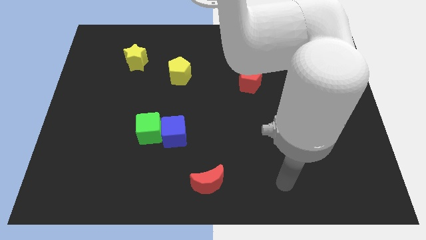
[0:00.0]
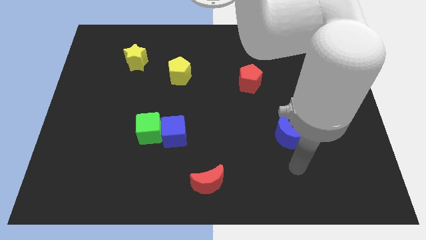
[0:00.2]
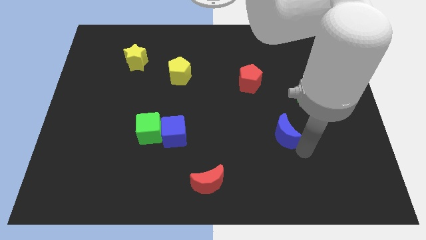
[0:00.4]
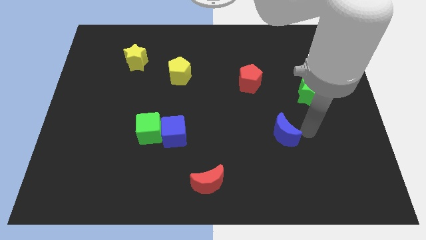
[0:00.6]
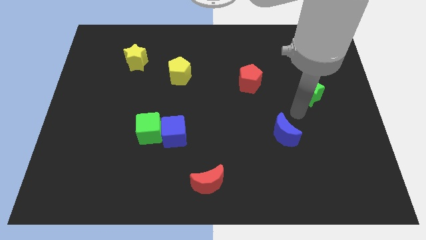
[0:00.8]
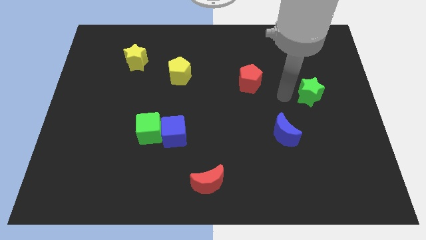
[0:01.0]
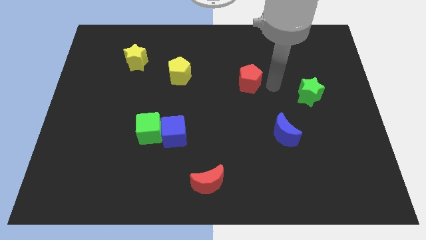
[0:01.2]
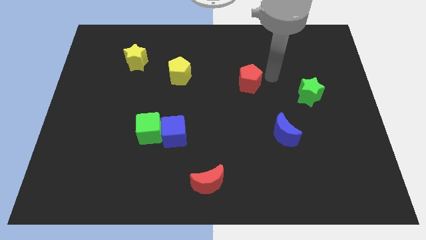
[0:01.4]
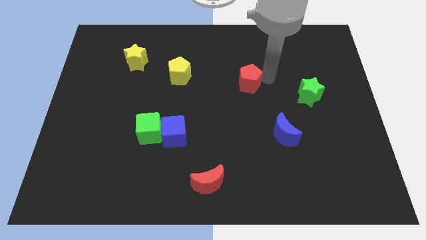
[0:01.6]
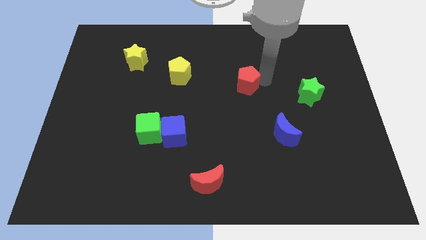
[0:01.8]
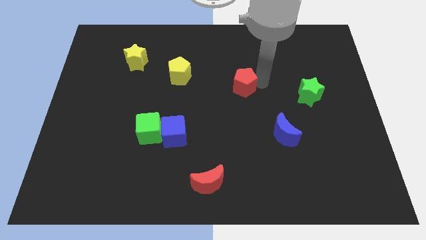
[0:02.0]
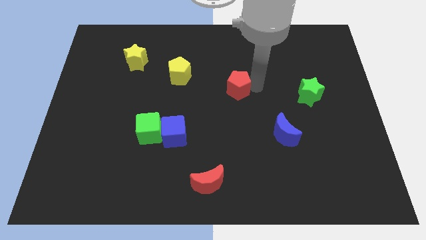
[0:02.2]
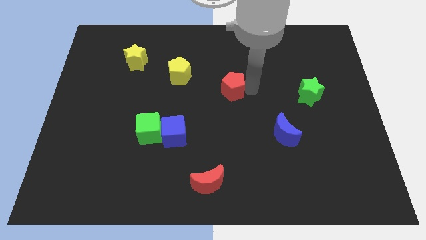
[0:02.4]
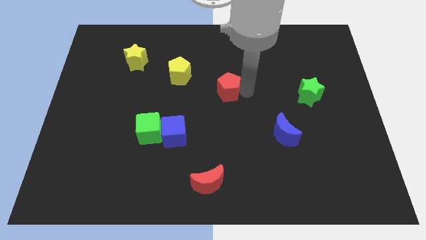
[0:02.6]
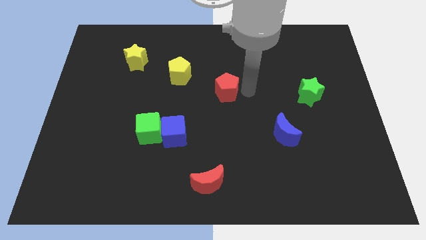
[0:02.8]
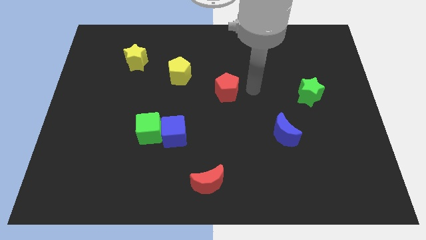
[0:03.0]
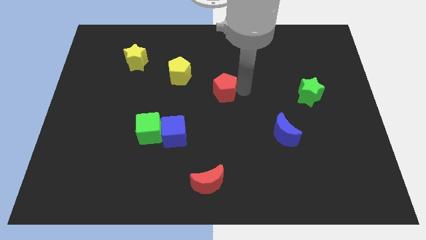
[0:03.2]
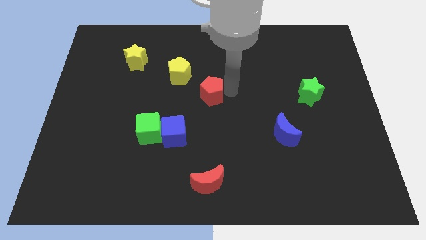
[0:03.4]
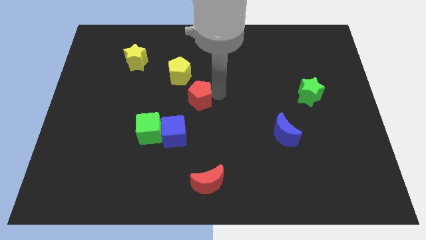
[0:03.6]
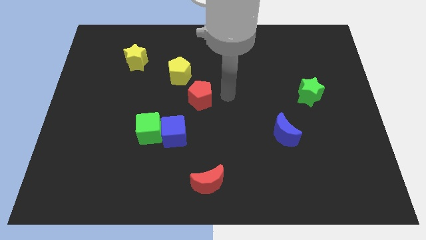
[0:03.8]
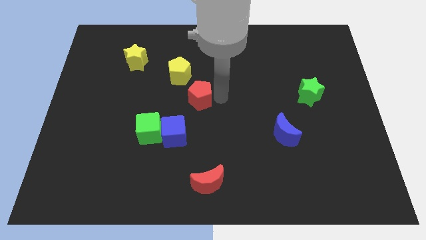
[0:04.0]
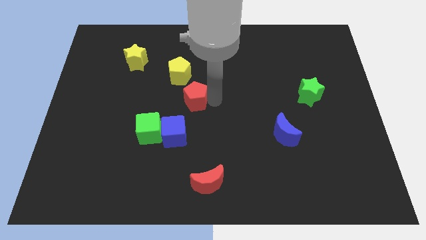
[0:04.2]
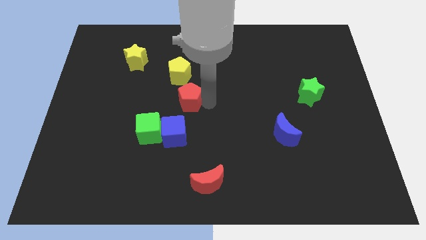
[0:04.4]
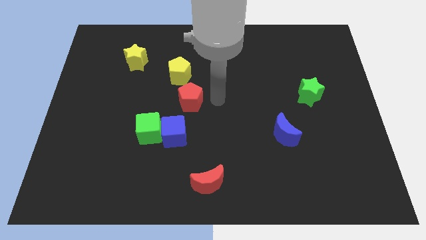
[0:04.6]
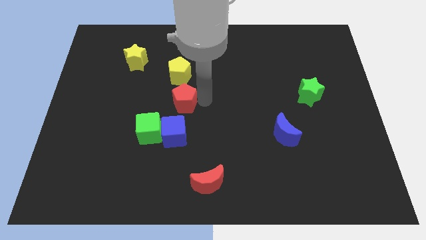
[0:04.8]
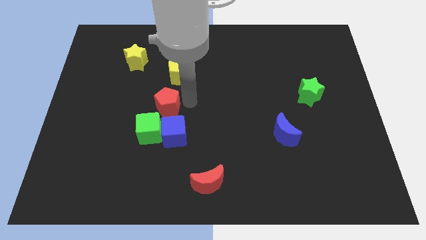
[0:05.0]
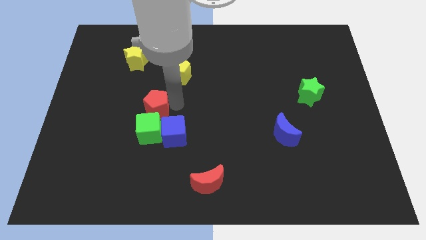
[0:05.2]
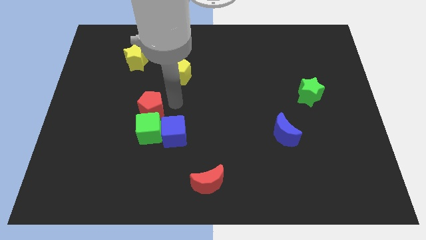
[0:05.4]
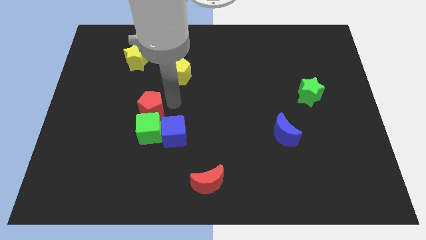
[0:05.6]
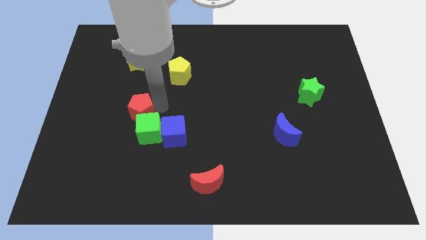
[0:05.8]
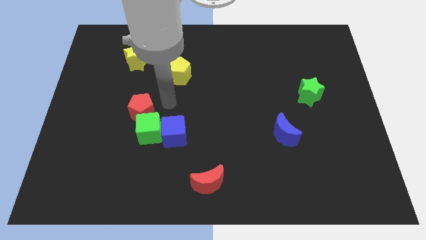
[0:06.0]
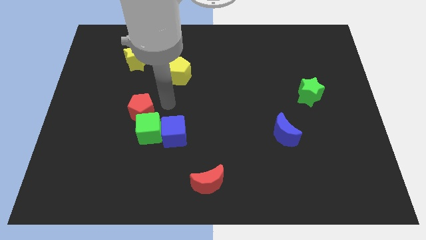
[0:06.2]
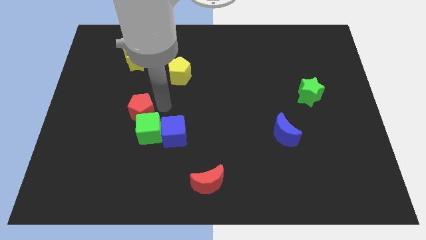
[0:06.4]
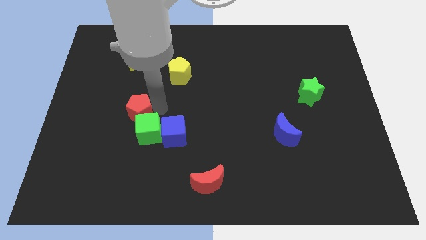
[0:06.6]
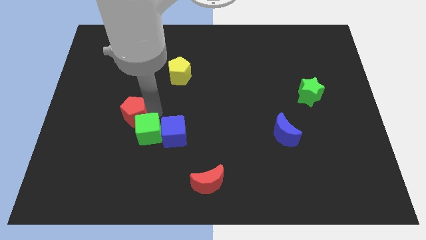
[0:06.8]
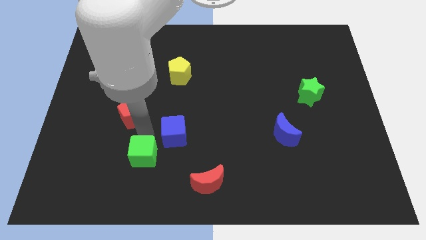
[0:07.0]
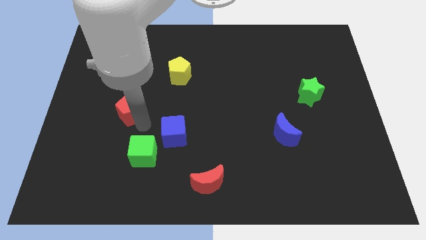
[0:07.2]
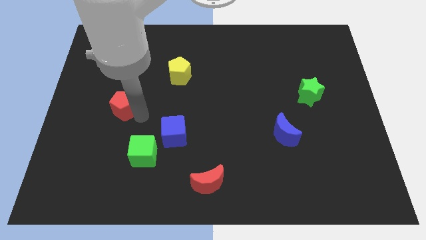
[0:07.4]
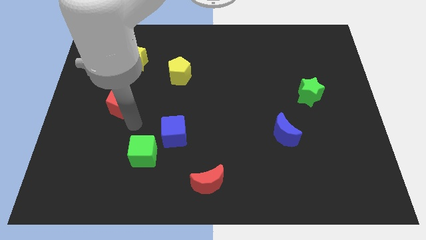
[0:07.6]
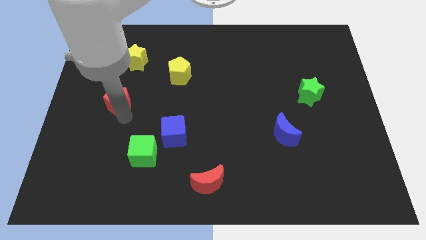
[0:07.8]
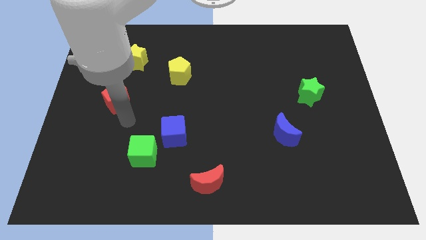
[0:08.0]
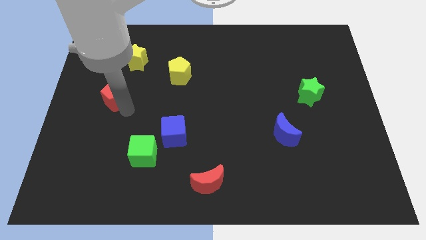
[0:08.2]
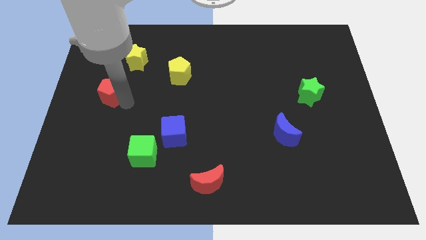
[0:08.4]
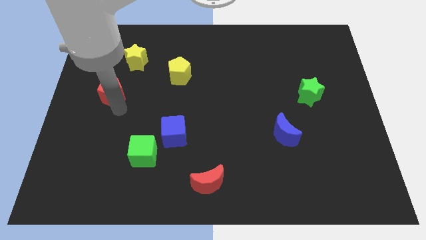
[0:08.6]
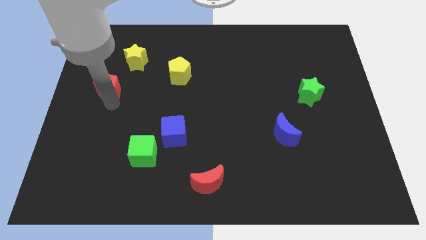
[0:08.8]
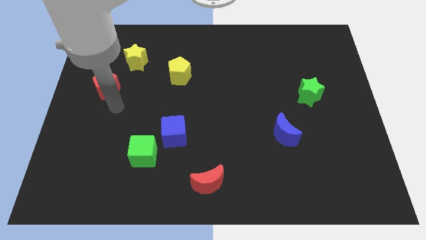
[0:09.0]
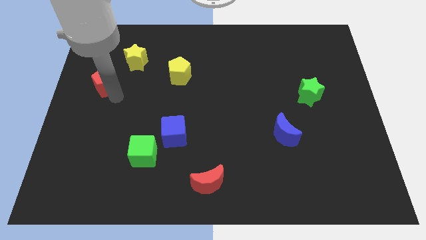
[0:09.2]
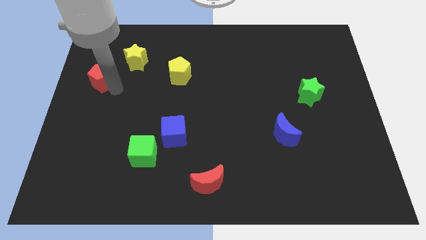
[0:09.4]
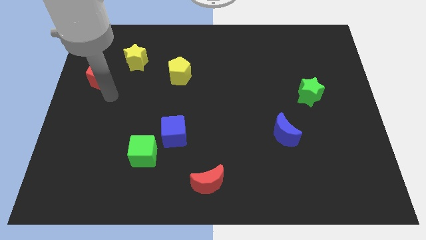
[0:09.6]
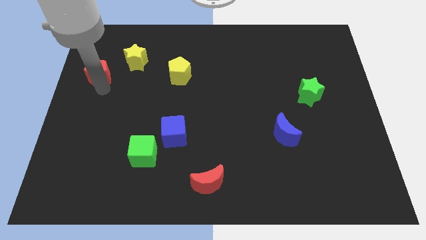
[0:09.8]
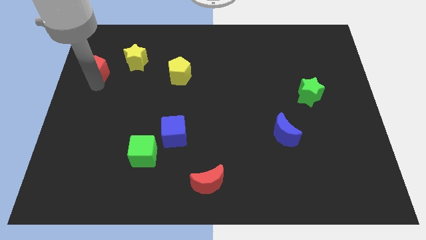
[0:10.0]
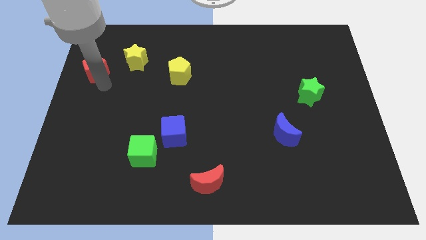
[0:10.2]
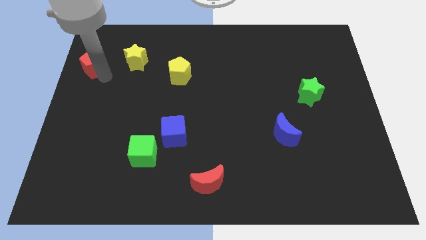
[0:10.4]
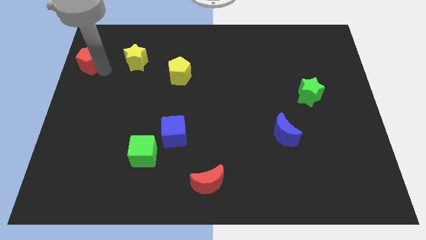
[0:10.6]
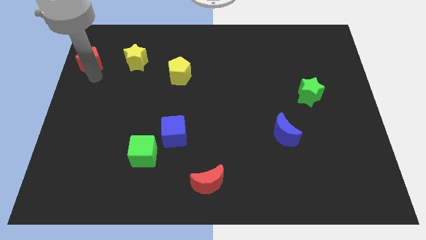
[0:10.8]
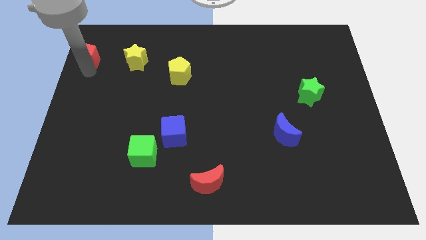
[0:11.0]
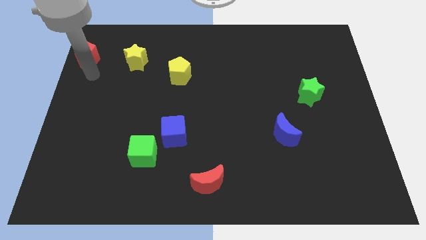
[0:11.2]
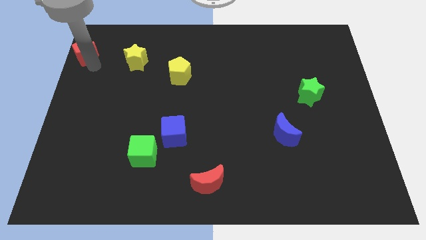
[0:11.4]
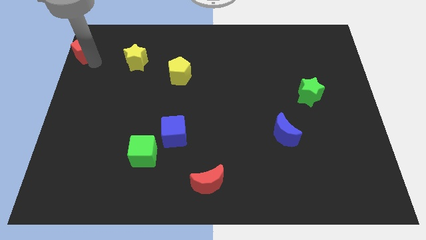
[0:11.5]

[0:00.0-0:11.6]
put the red pentagon to the top left

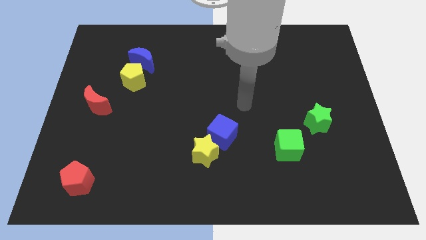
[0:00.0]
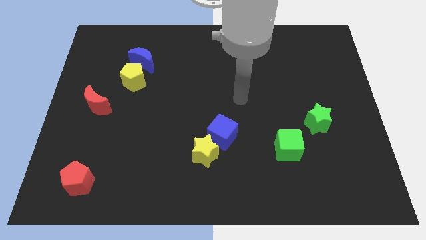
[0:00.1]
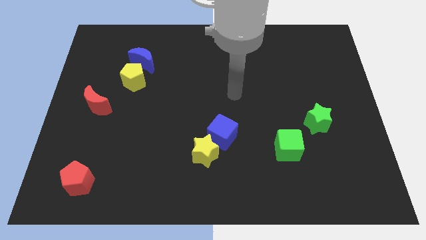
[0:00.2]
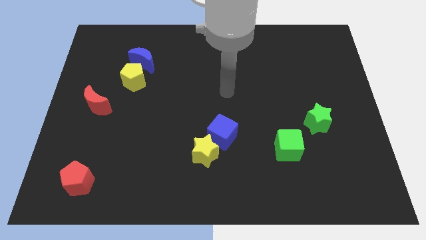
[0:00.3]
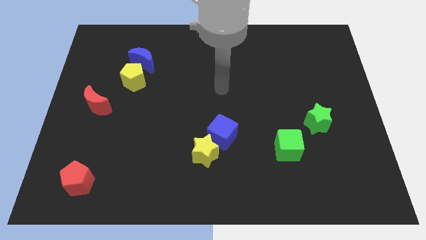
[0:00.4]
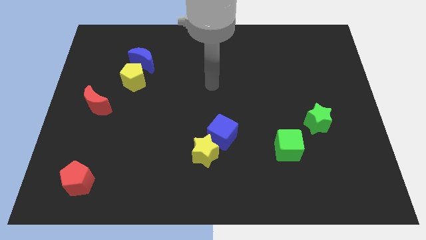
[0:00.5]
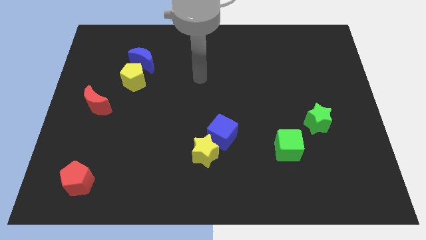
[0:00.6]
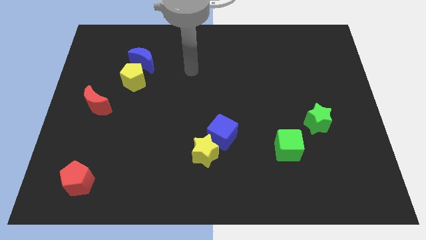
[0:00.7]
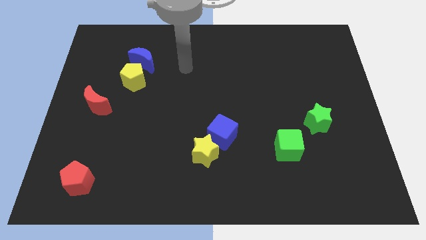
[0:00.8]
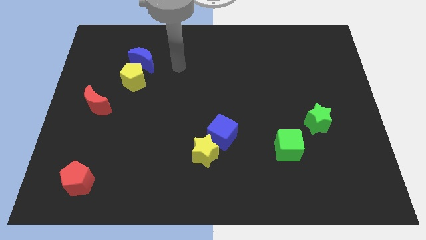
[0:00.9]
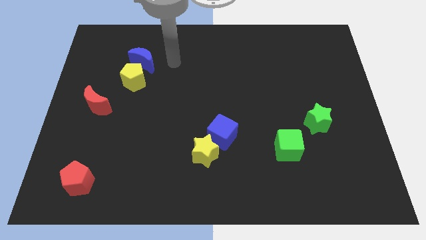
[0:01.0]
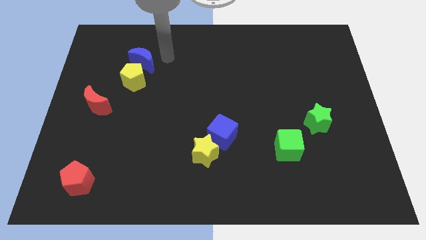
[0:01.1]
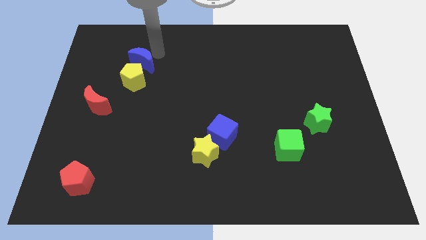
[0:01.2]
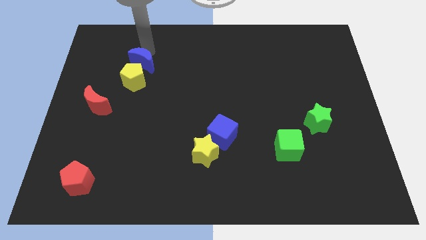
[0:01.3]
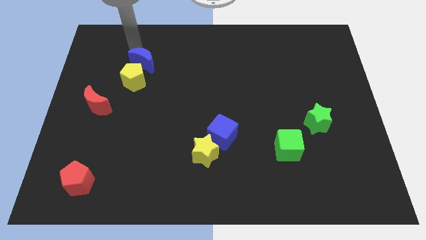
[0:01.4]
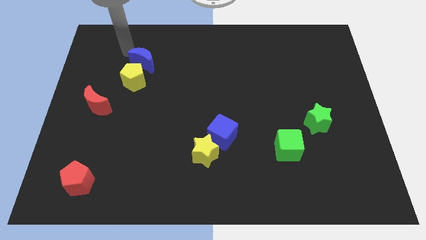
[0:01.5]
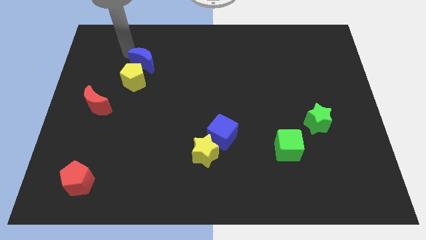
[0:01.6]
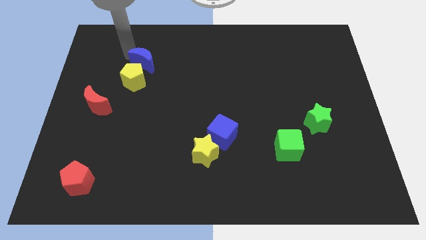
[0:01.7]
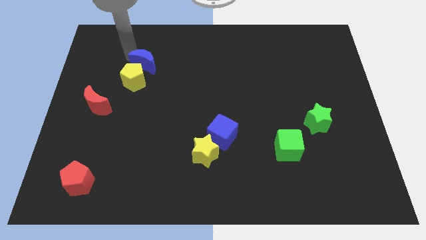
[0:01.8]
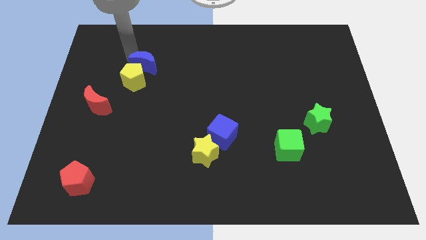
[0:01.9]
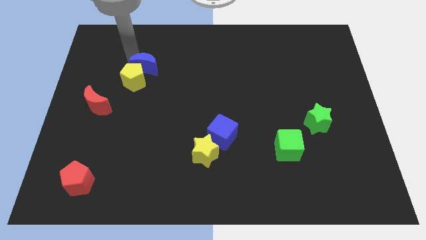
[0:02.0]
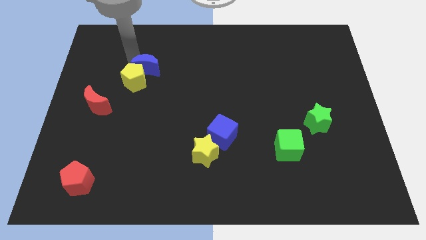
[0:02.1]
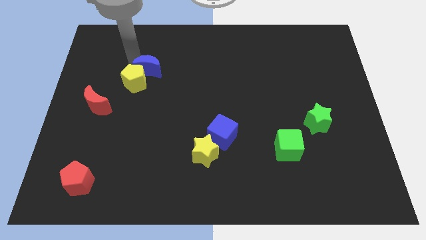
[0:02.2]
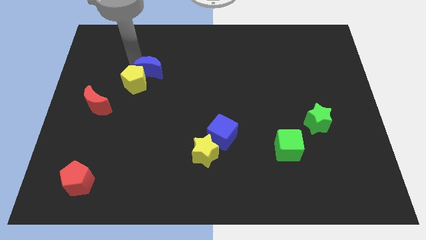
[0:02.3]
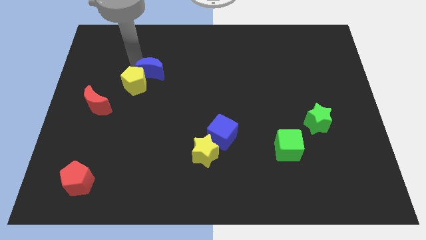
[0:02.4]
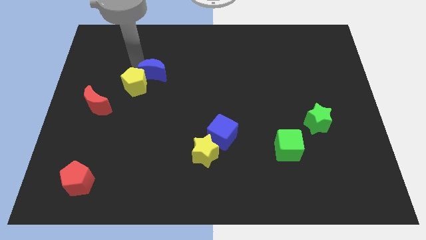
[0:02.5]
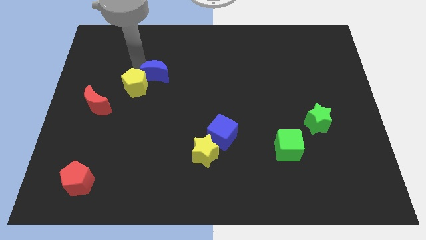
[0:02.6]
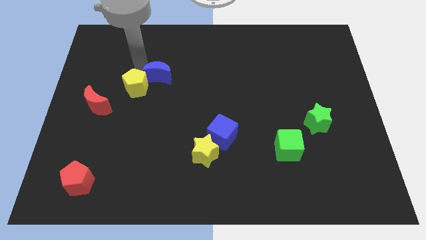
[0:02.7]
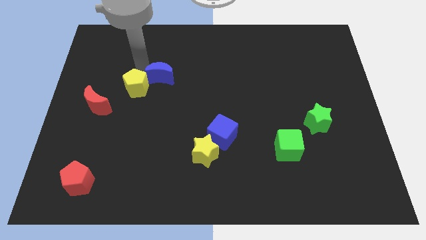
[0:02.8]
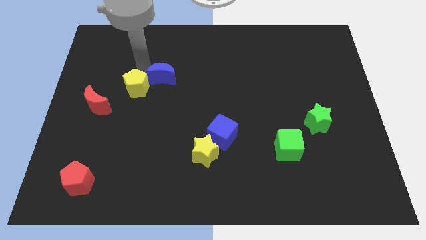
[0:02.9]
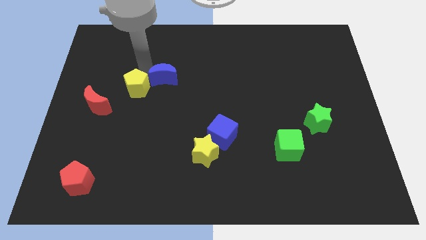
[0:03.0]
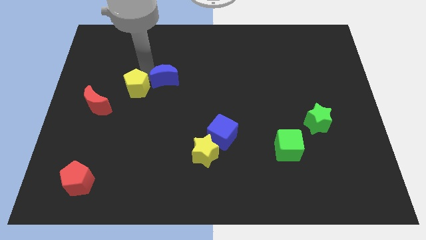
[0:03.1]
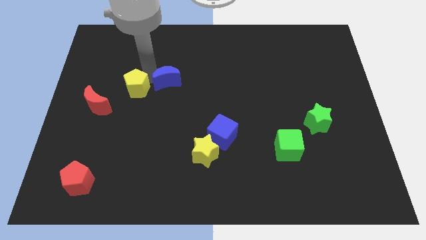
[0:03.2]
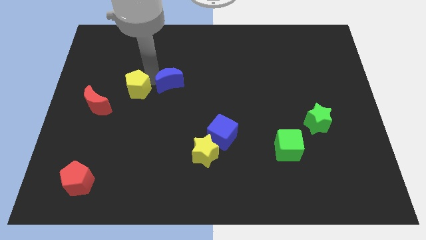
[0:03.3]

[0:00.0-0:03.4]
slide the blue moon to the middle
